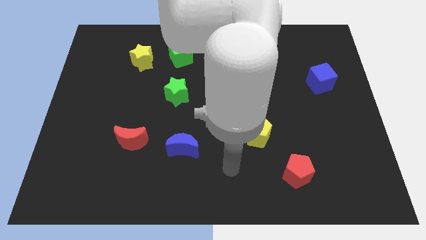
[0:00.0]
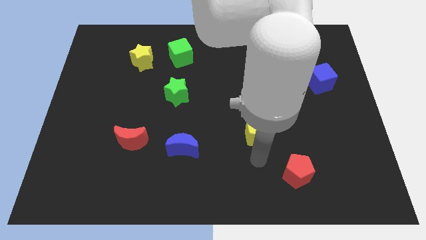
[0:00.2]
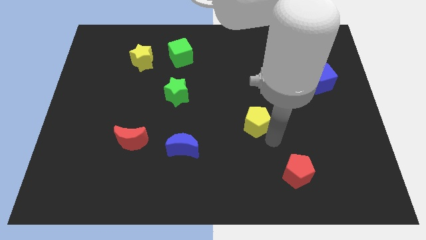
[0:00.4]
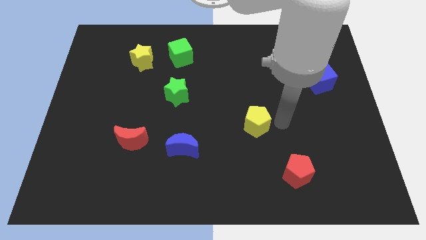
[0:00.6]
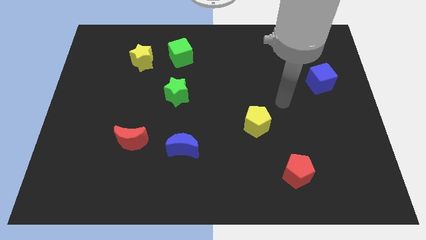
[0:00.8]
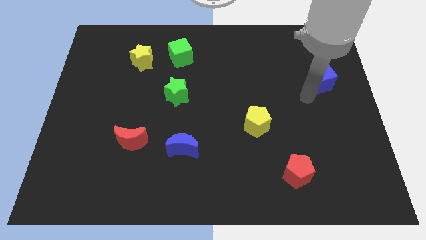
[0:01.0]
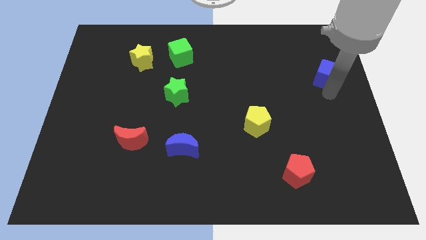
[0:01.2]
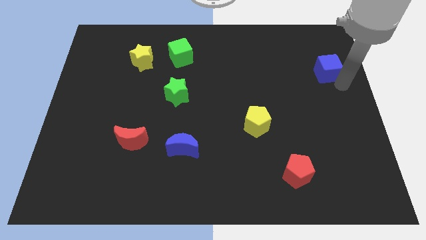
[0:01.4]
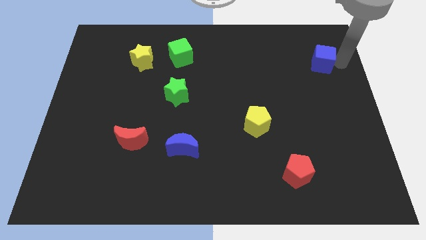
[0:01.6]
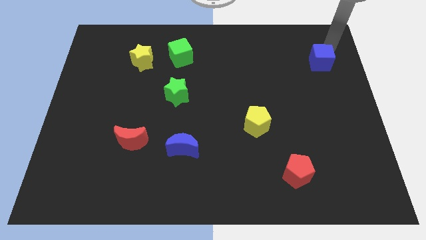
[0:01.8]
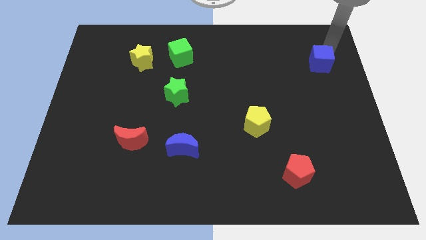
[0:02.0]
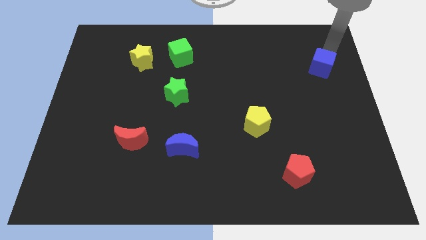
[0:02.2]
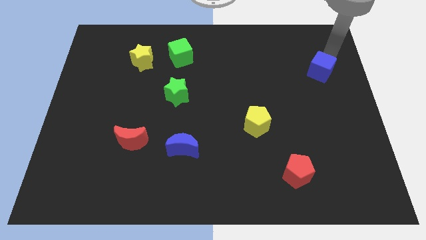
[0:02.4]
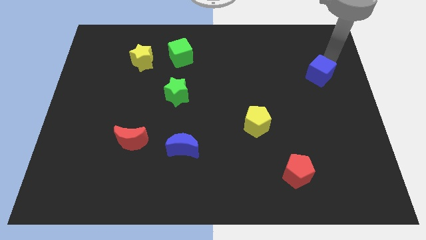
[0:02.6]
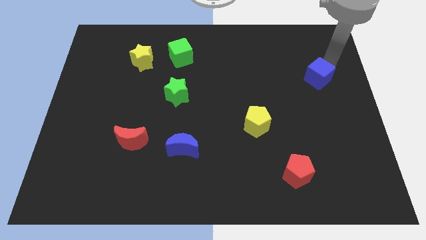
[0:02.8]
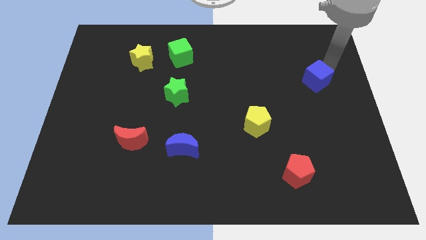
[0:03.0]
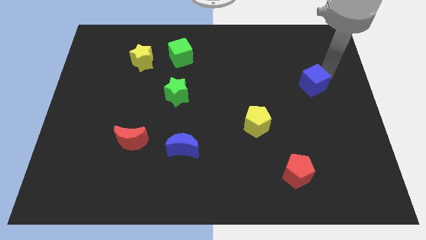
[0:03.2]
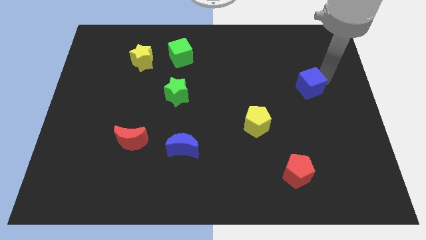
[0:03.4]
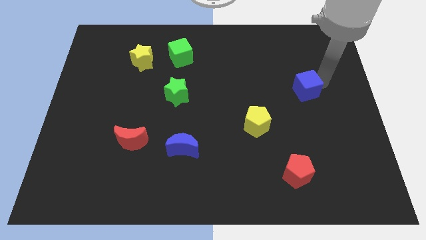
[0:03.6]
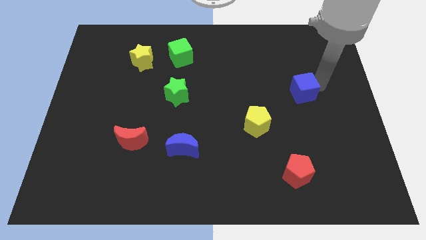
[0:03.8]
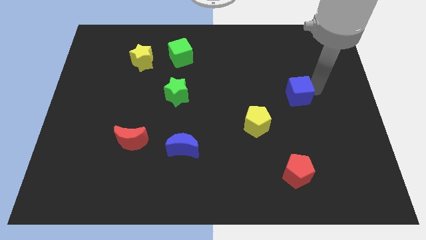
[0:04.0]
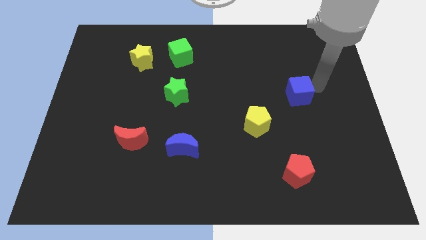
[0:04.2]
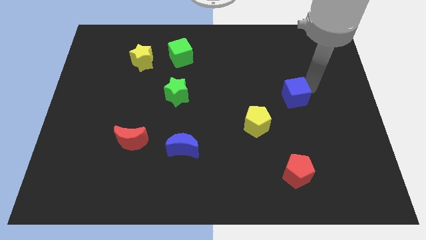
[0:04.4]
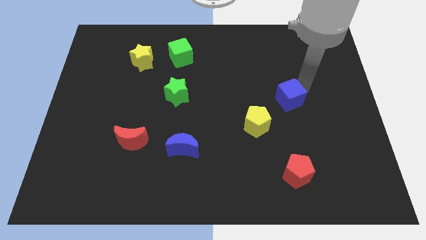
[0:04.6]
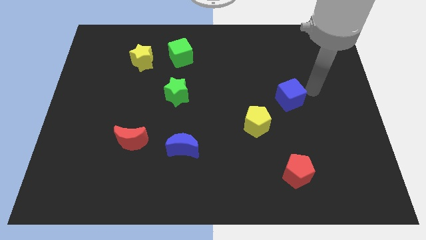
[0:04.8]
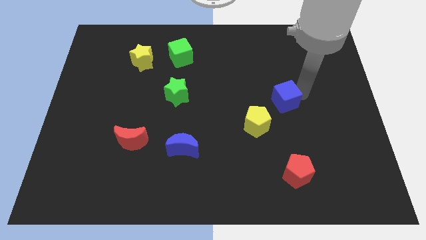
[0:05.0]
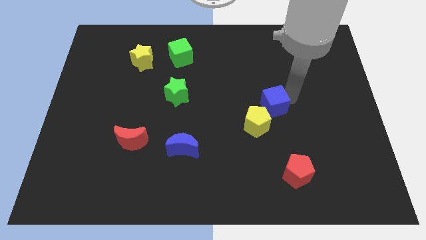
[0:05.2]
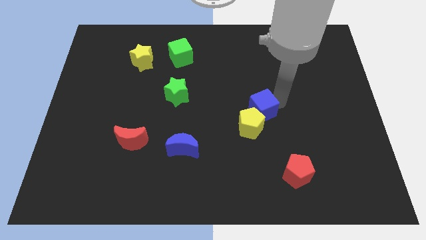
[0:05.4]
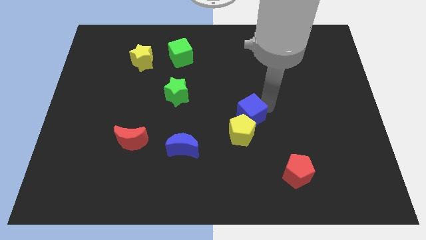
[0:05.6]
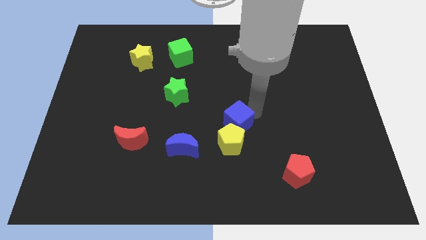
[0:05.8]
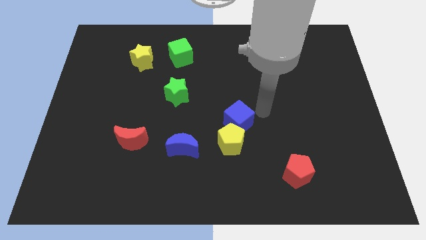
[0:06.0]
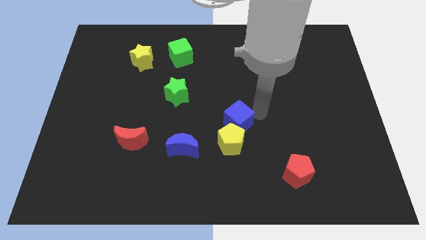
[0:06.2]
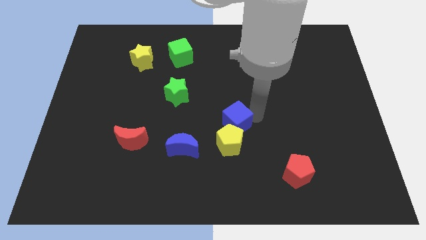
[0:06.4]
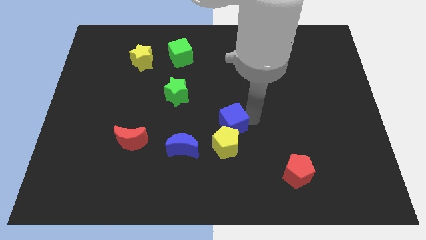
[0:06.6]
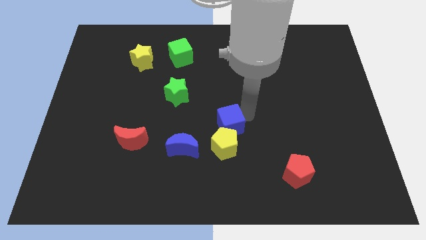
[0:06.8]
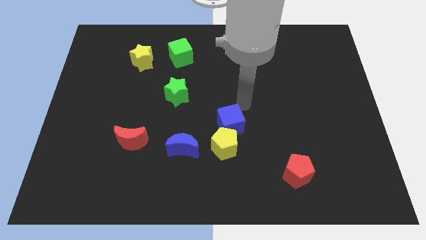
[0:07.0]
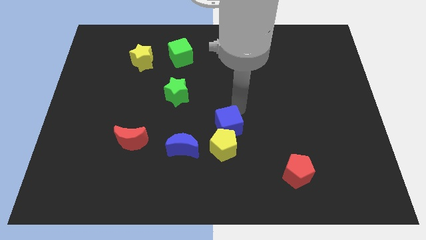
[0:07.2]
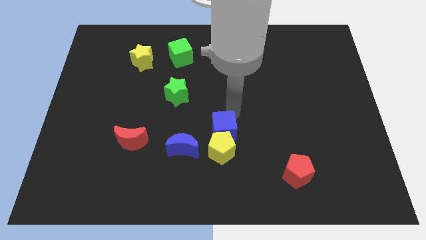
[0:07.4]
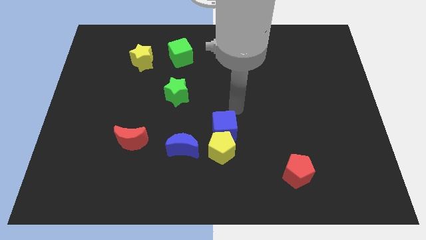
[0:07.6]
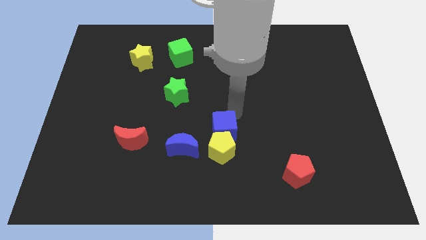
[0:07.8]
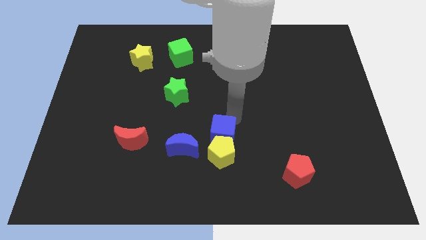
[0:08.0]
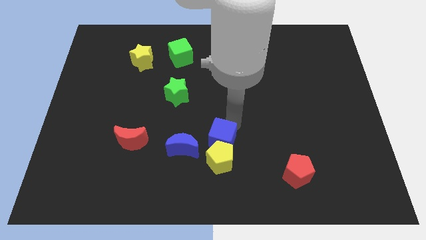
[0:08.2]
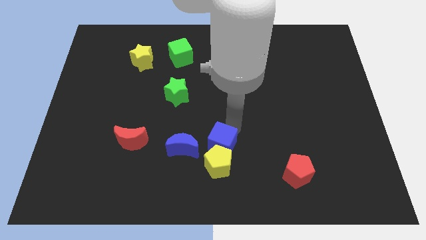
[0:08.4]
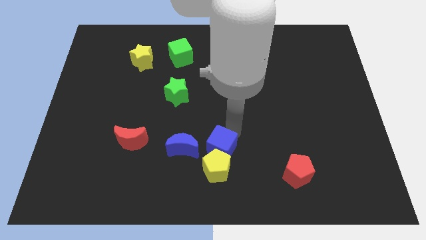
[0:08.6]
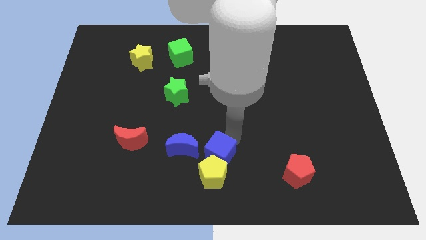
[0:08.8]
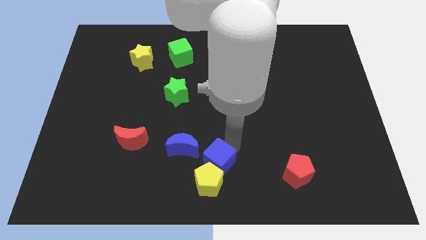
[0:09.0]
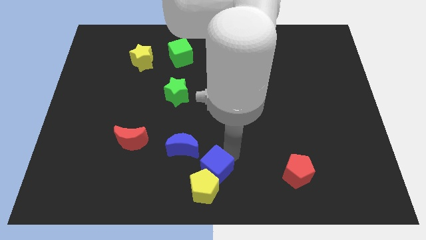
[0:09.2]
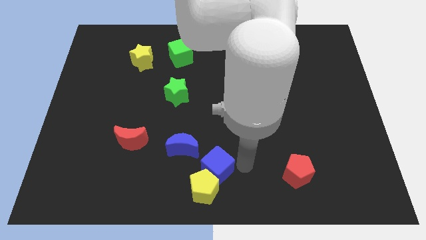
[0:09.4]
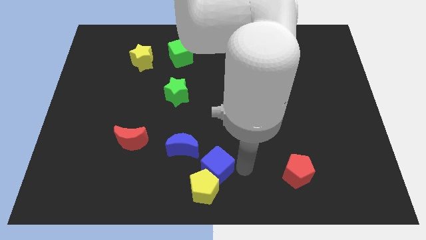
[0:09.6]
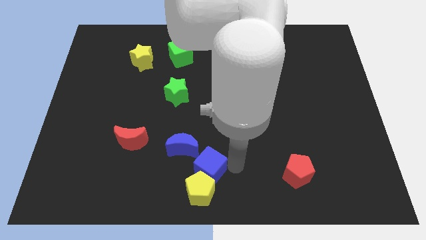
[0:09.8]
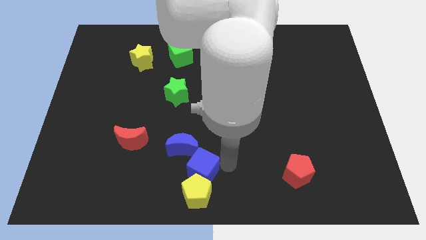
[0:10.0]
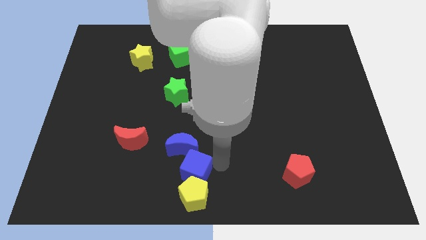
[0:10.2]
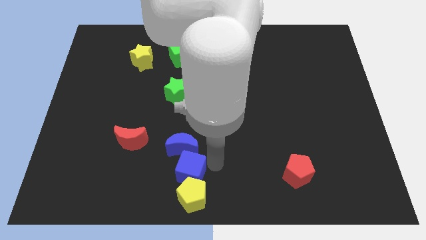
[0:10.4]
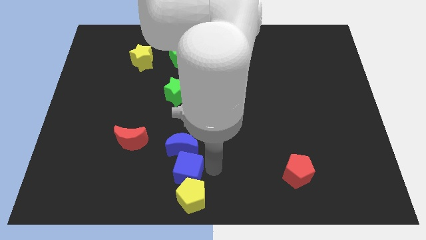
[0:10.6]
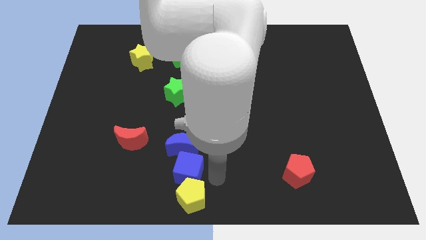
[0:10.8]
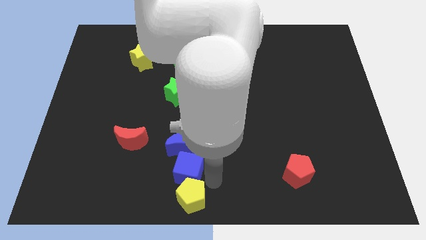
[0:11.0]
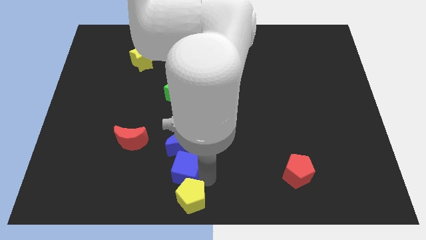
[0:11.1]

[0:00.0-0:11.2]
slide the blue cube diagonally down and to the left of the blue moon

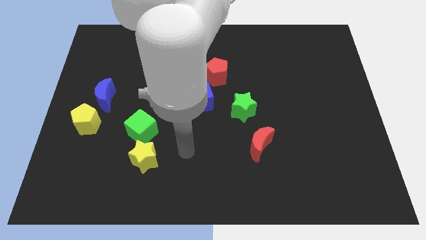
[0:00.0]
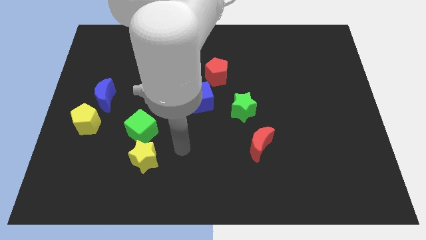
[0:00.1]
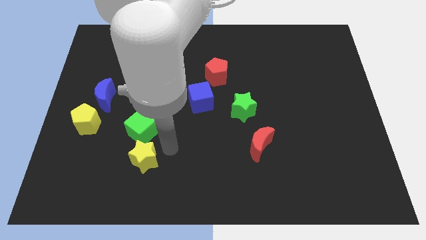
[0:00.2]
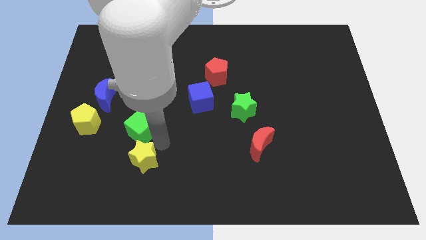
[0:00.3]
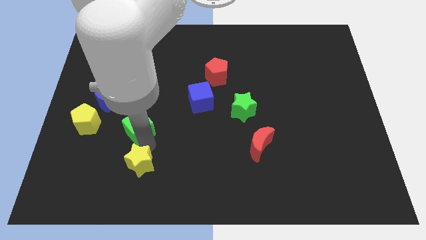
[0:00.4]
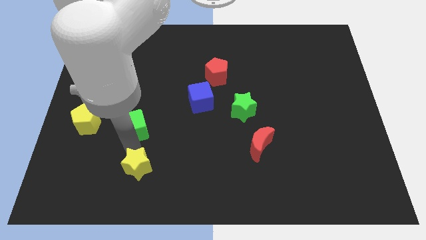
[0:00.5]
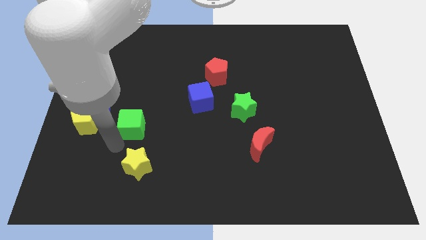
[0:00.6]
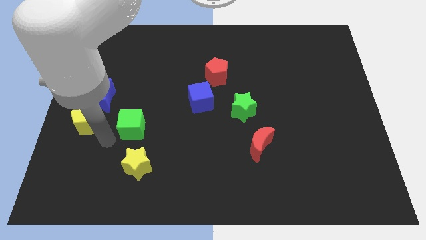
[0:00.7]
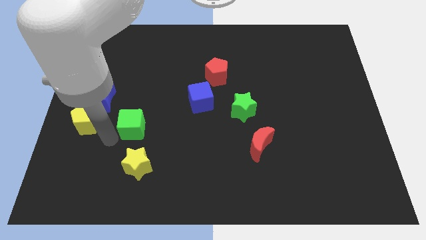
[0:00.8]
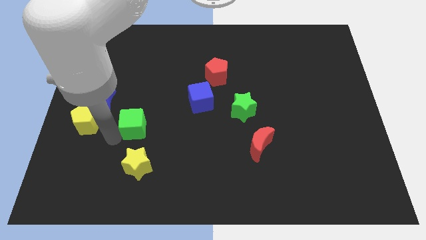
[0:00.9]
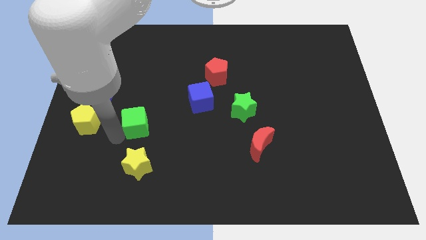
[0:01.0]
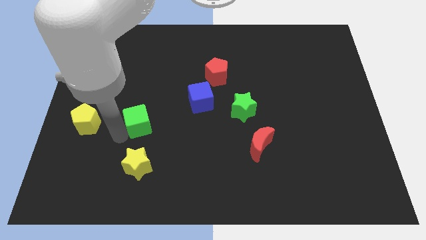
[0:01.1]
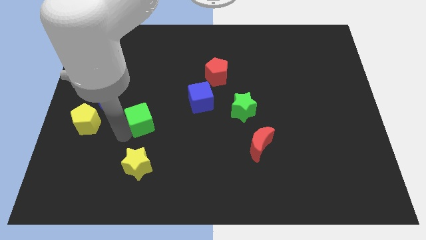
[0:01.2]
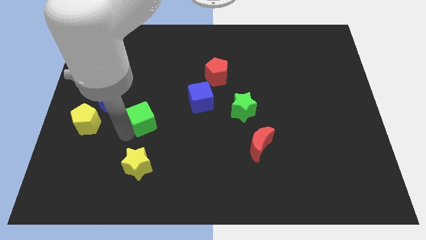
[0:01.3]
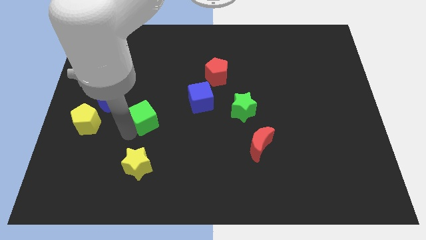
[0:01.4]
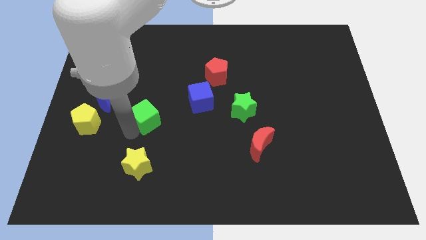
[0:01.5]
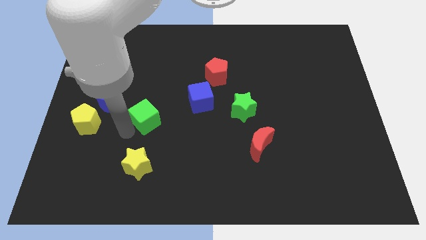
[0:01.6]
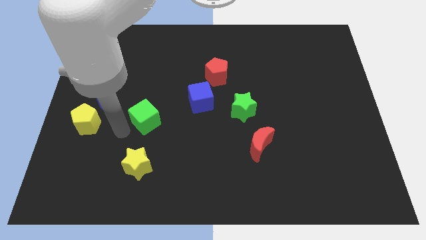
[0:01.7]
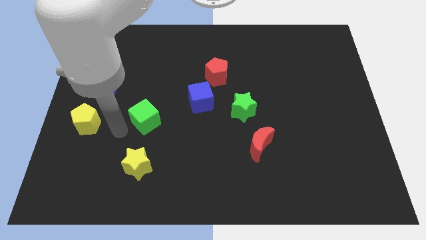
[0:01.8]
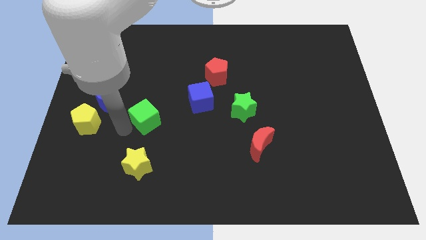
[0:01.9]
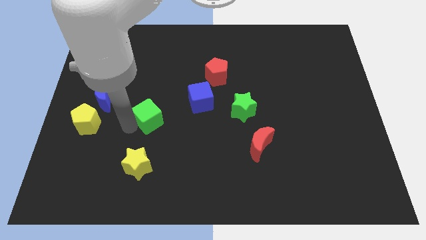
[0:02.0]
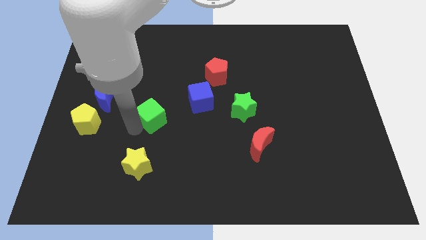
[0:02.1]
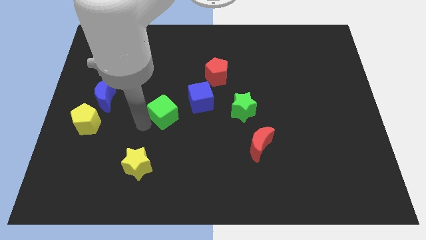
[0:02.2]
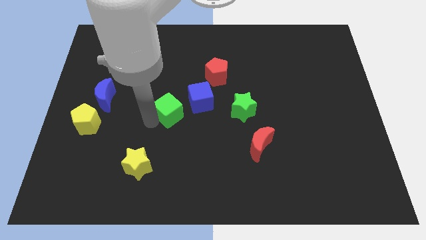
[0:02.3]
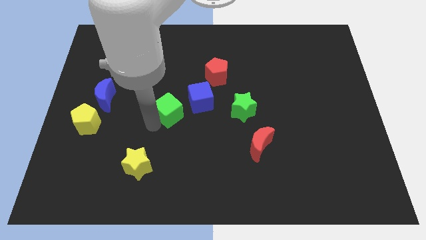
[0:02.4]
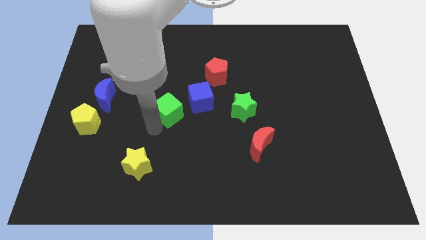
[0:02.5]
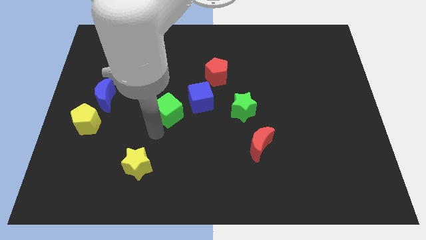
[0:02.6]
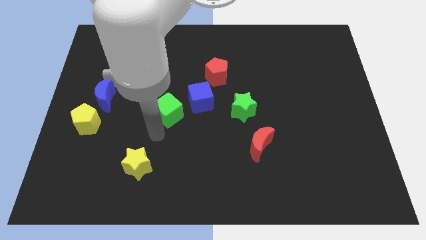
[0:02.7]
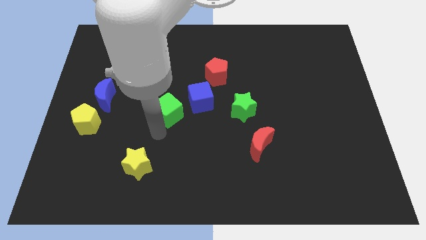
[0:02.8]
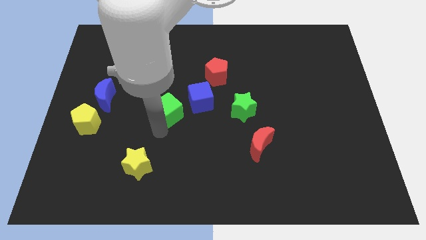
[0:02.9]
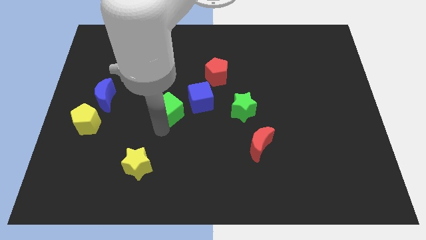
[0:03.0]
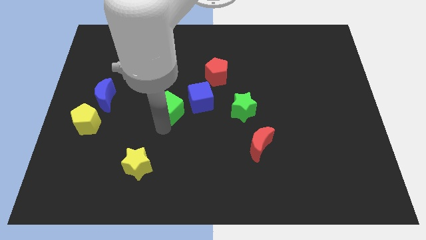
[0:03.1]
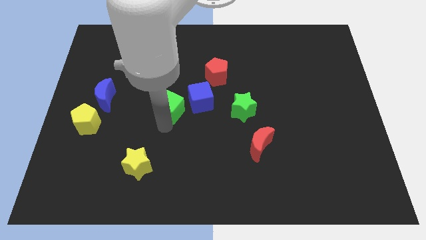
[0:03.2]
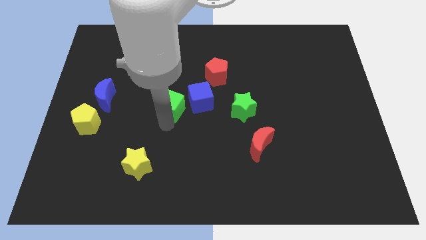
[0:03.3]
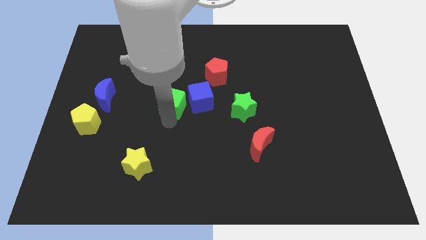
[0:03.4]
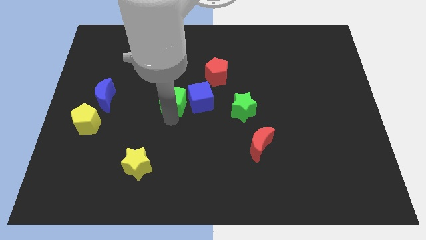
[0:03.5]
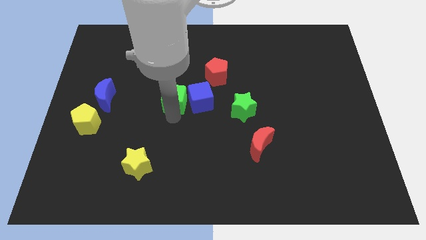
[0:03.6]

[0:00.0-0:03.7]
put the green cube diagonally up and to the left of the blue cube
